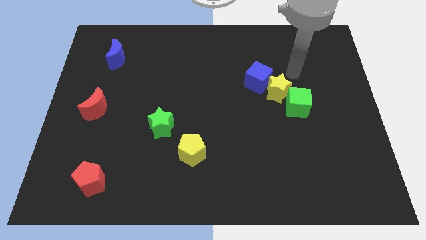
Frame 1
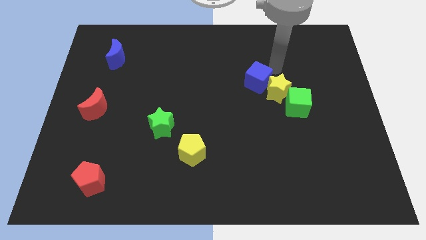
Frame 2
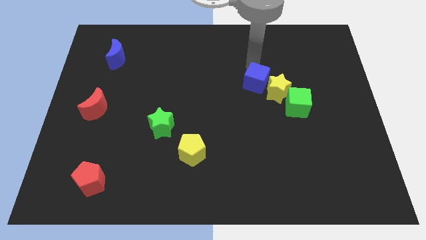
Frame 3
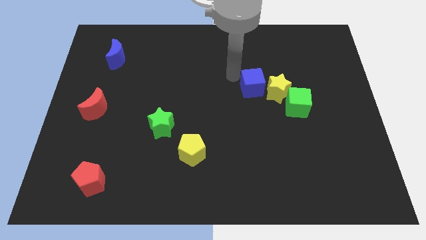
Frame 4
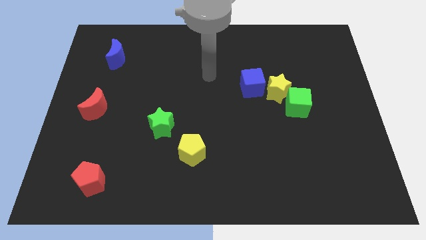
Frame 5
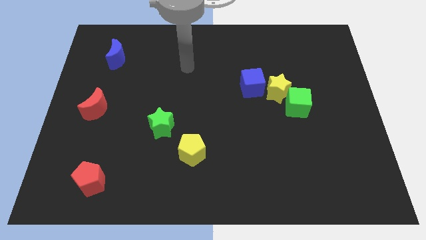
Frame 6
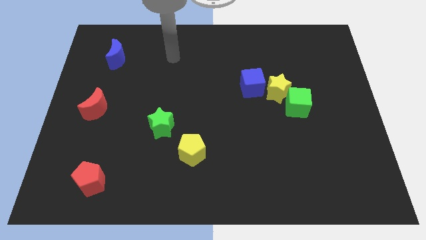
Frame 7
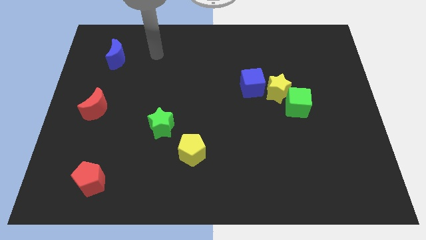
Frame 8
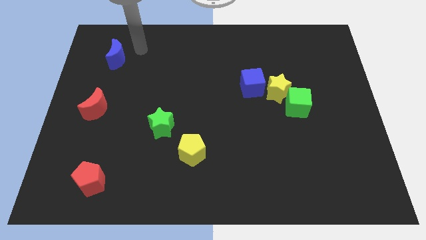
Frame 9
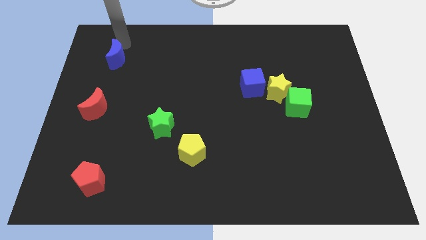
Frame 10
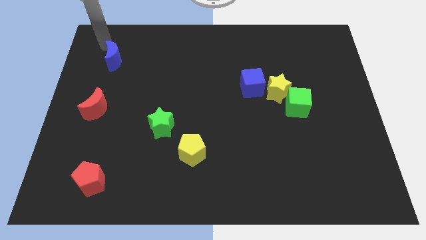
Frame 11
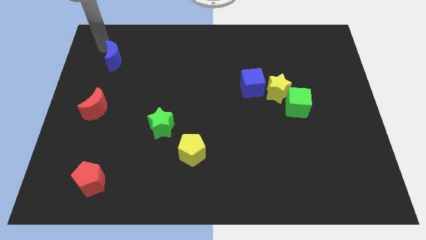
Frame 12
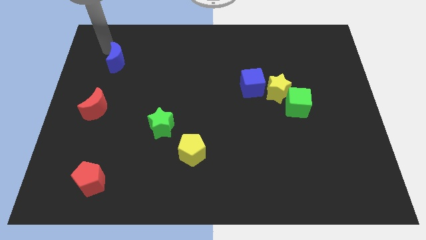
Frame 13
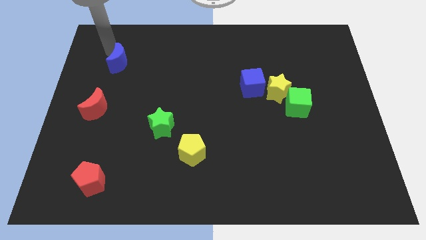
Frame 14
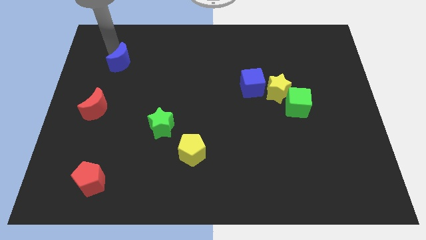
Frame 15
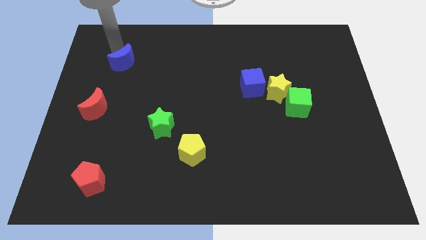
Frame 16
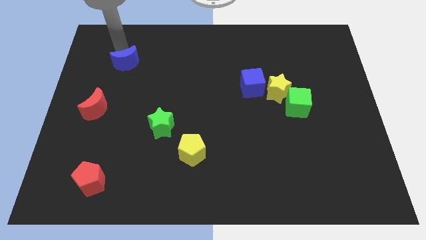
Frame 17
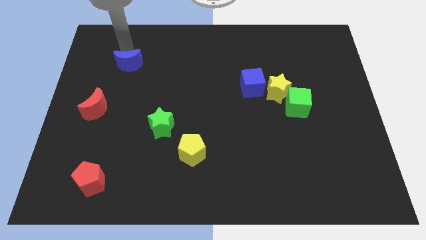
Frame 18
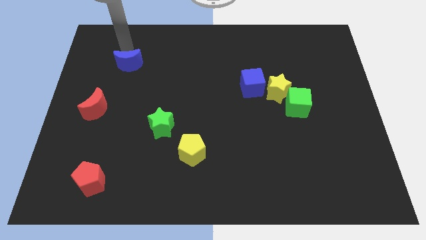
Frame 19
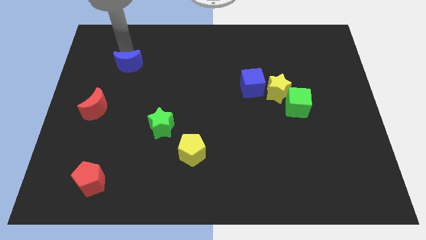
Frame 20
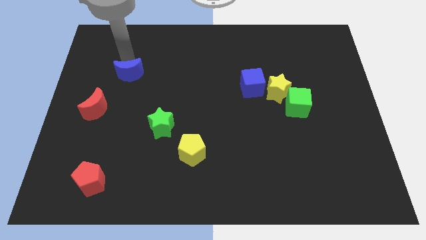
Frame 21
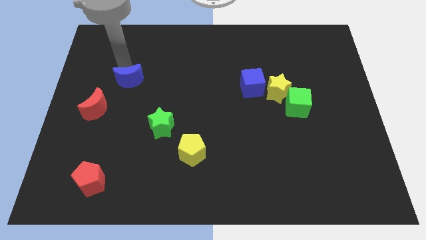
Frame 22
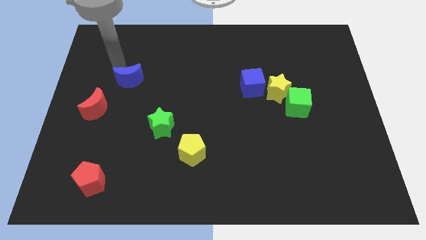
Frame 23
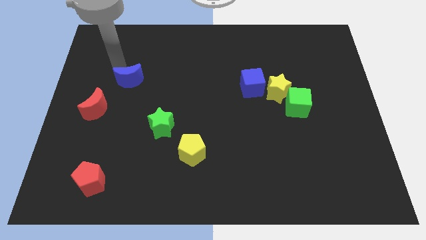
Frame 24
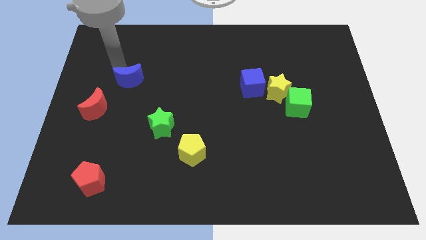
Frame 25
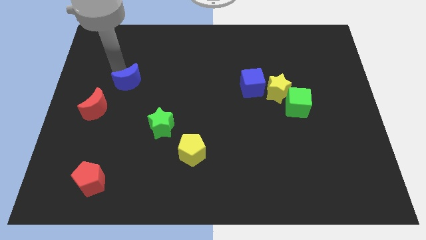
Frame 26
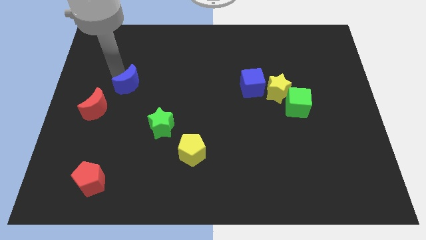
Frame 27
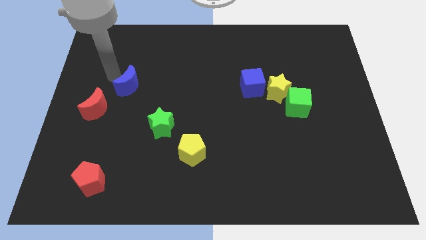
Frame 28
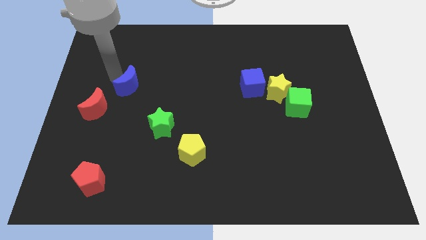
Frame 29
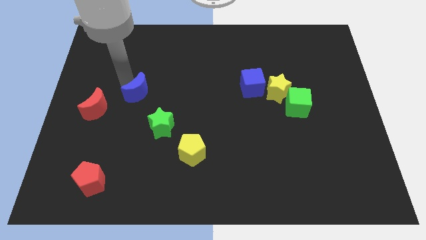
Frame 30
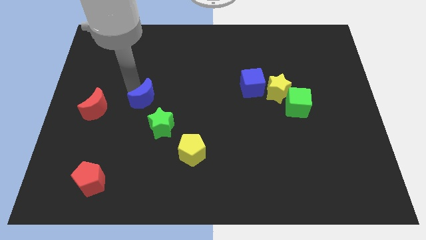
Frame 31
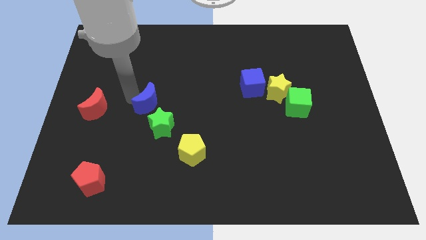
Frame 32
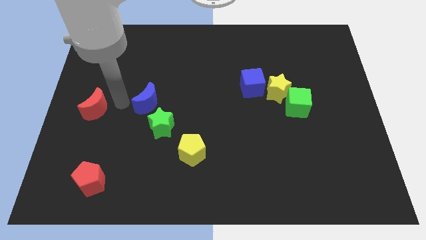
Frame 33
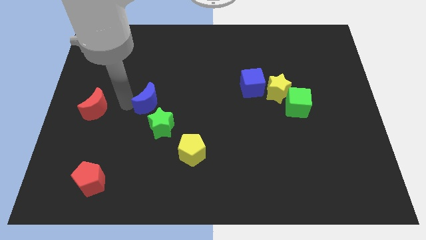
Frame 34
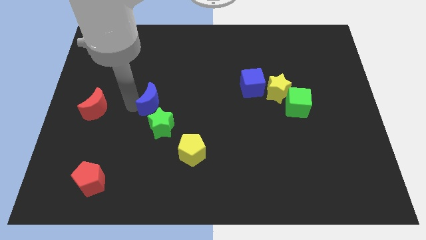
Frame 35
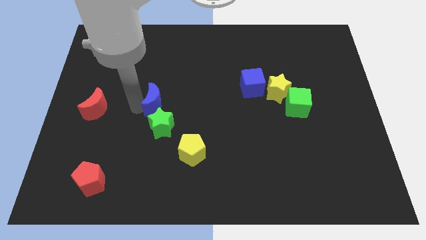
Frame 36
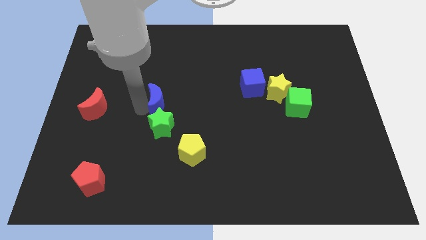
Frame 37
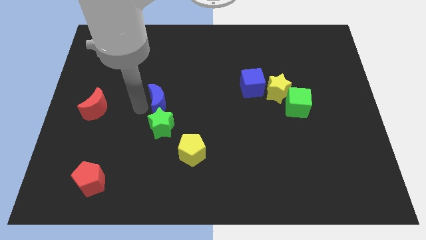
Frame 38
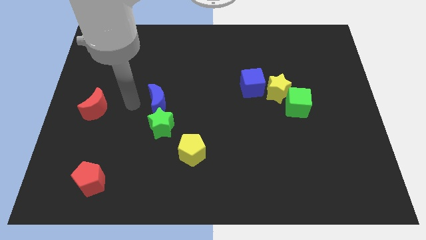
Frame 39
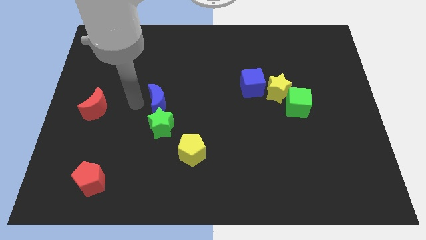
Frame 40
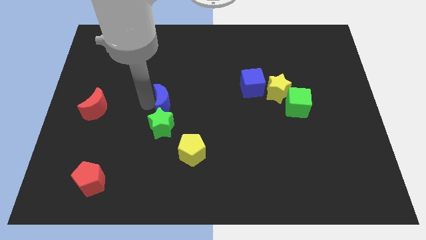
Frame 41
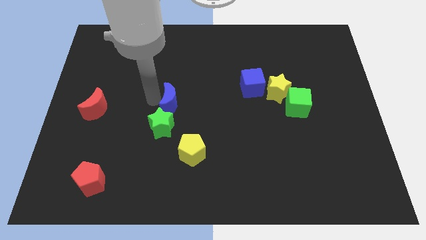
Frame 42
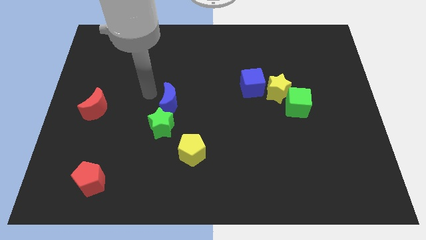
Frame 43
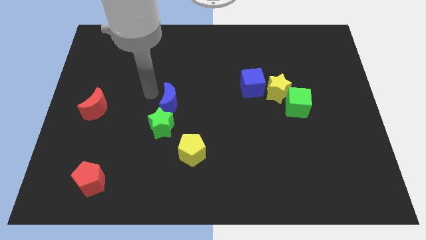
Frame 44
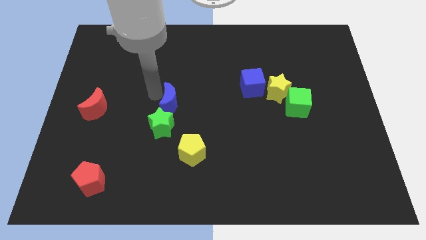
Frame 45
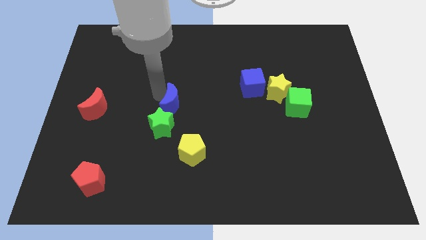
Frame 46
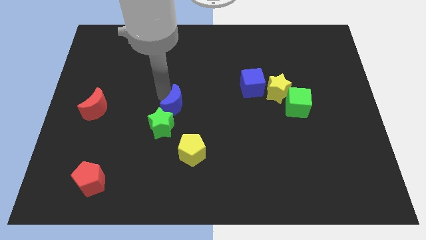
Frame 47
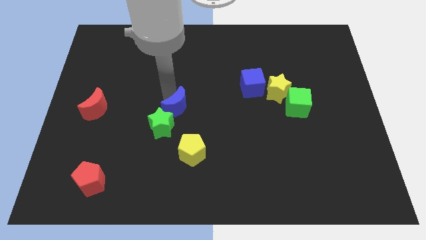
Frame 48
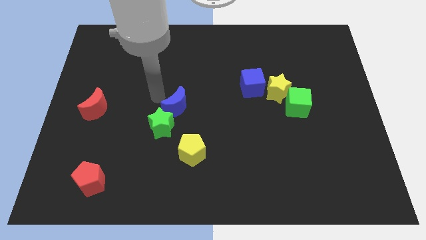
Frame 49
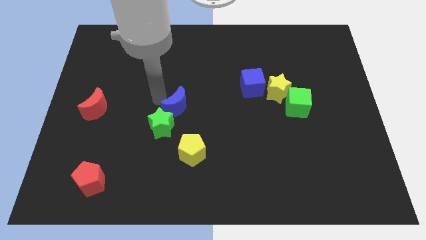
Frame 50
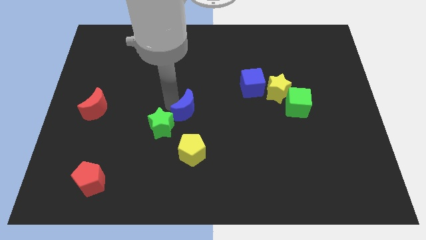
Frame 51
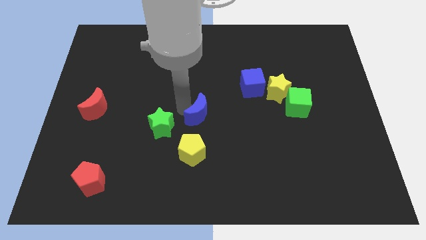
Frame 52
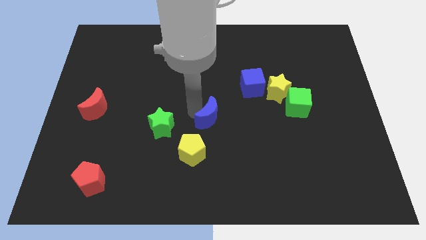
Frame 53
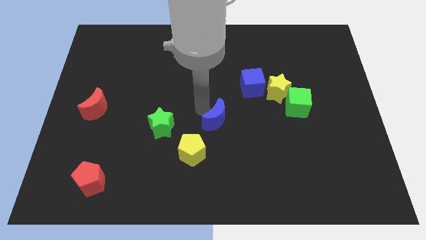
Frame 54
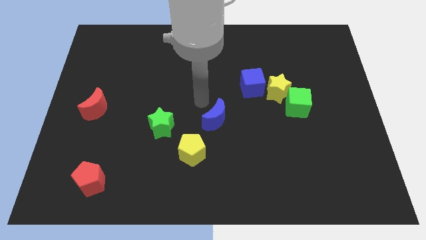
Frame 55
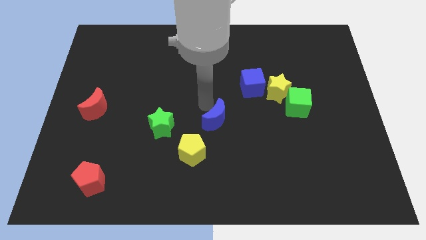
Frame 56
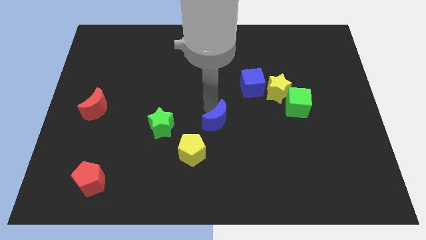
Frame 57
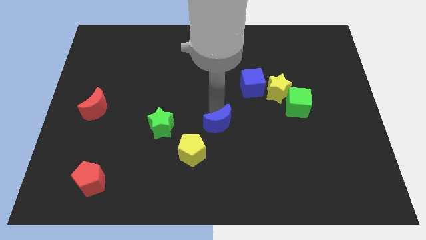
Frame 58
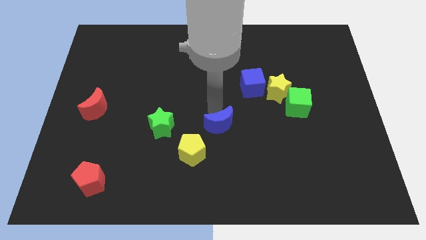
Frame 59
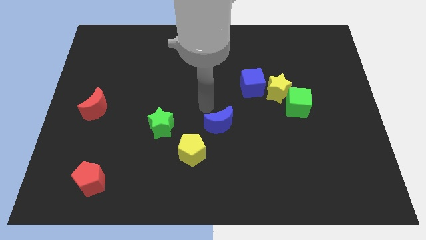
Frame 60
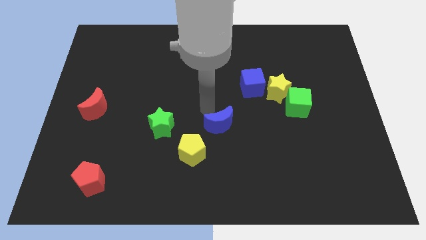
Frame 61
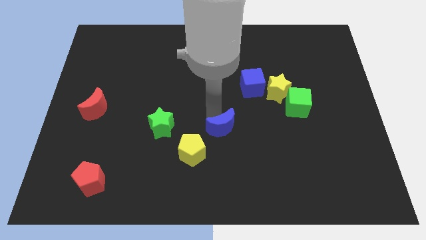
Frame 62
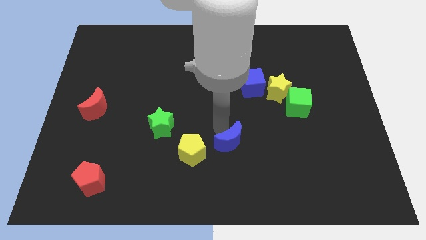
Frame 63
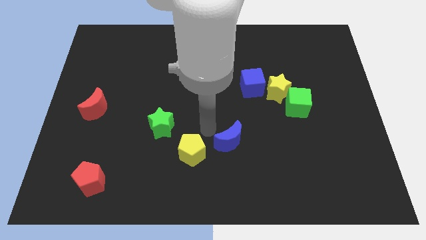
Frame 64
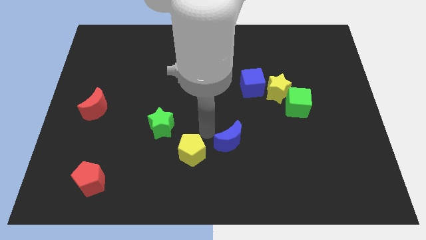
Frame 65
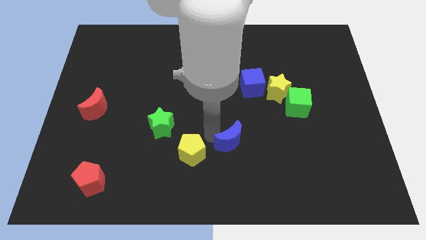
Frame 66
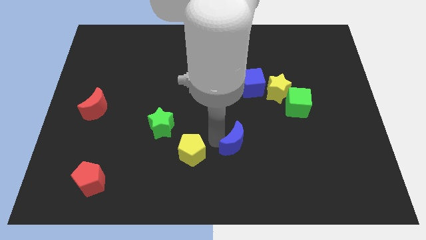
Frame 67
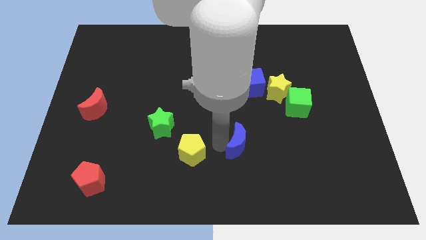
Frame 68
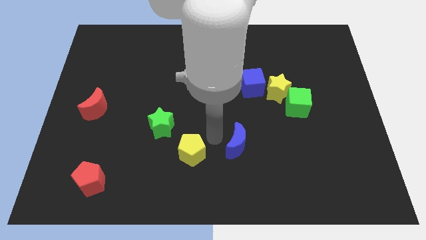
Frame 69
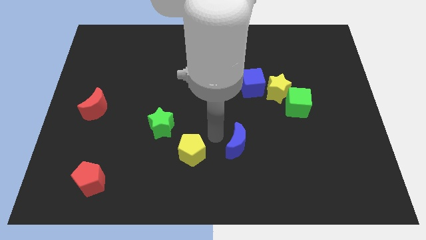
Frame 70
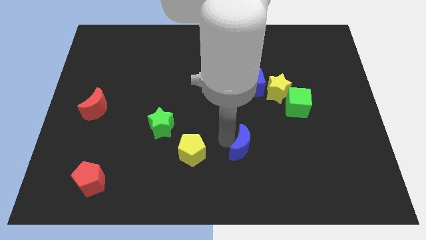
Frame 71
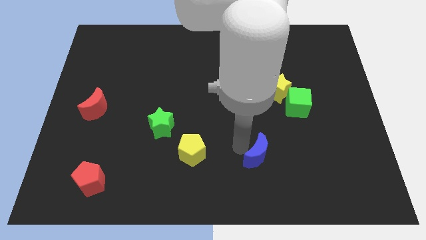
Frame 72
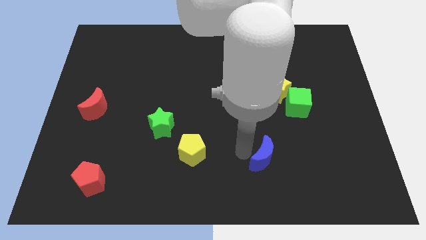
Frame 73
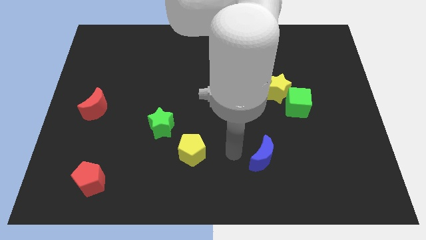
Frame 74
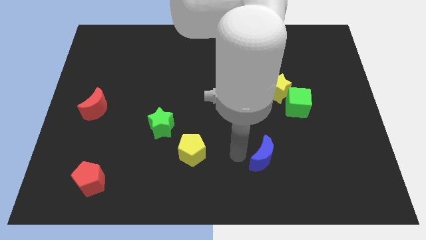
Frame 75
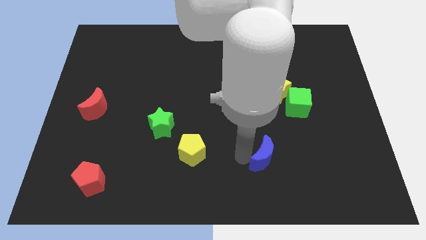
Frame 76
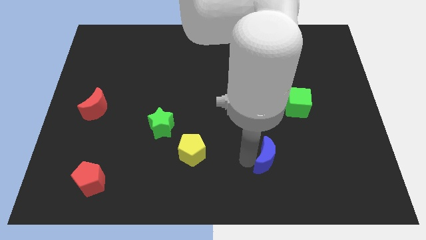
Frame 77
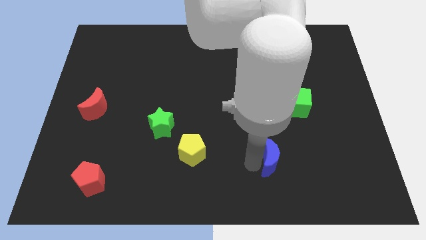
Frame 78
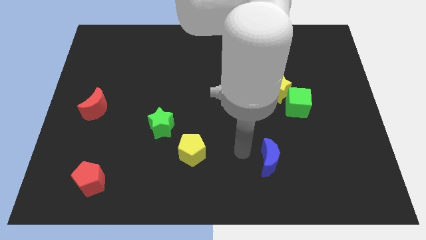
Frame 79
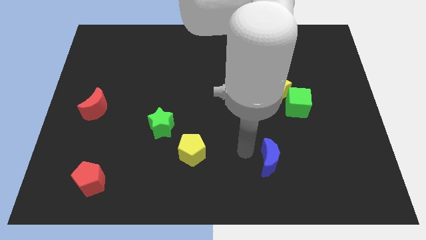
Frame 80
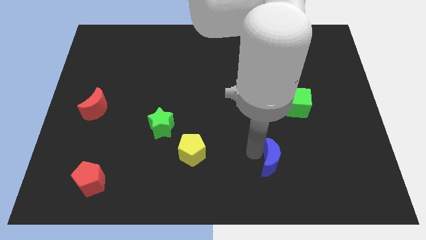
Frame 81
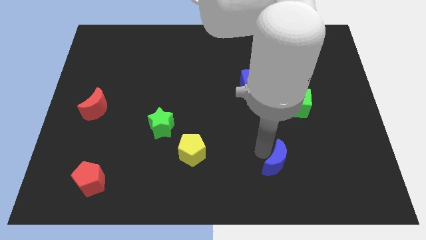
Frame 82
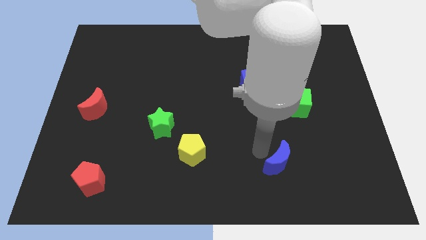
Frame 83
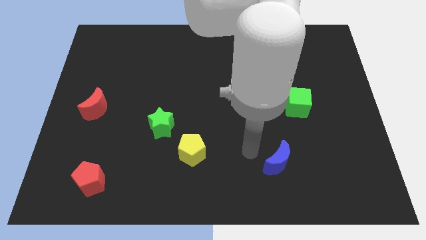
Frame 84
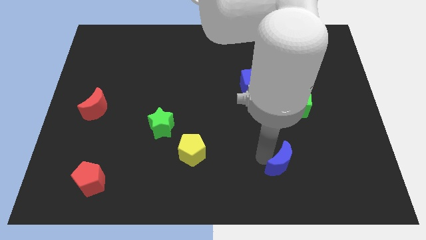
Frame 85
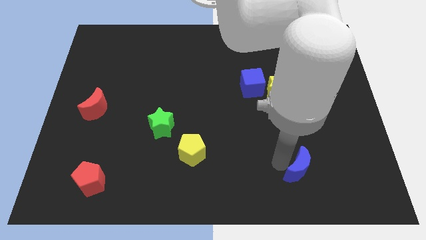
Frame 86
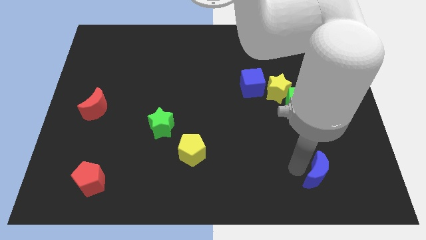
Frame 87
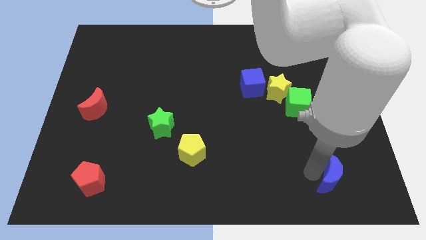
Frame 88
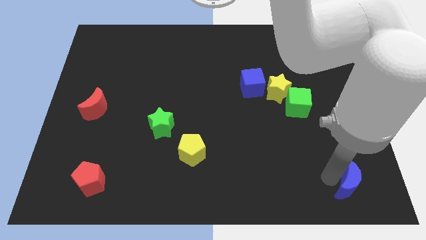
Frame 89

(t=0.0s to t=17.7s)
slide the blue moon to the lower right corner
